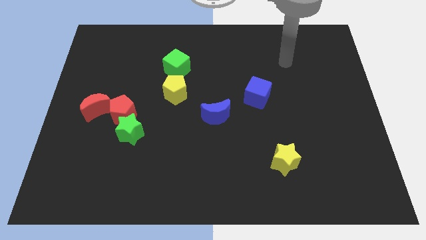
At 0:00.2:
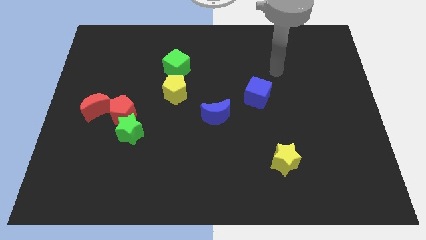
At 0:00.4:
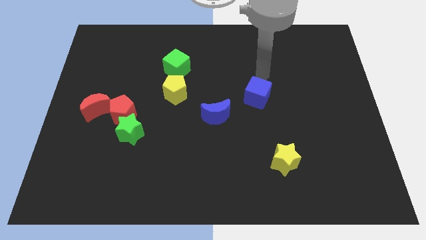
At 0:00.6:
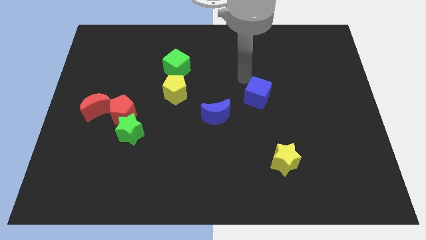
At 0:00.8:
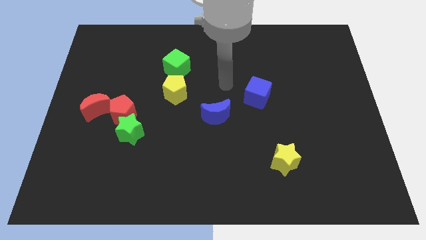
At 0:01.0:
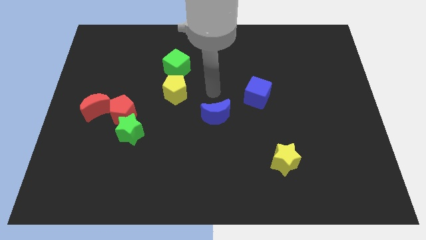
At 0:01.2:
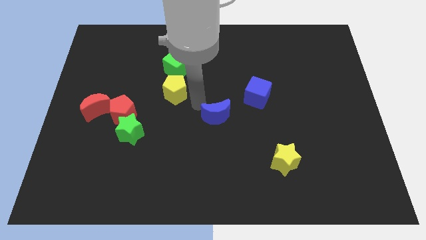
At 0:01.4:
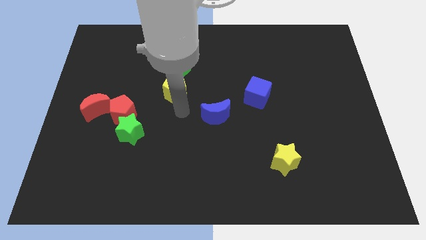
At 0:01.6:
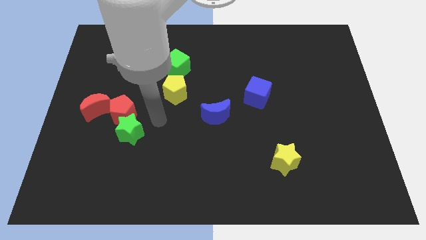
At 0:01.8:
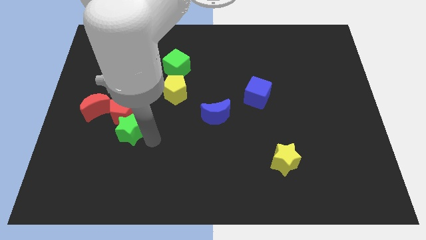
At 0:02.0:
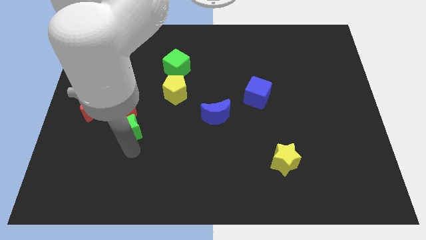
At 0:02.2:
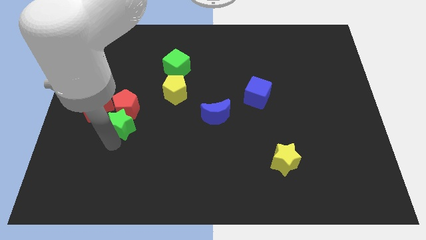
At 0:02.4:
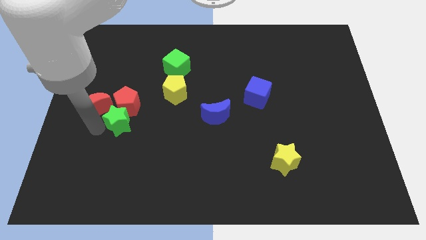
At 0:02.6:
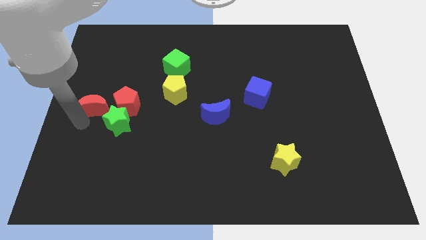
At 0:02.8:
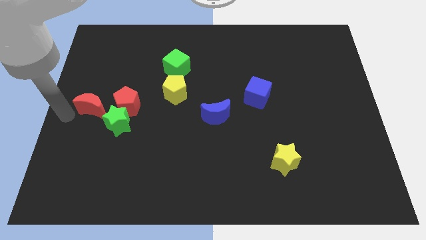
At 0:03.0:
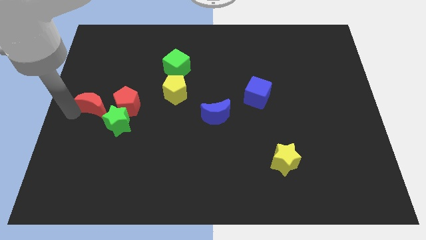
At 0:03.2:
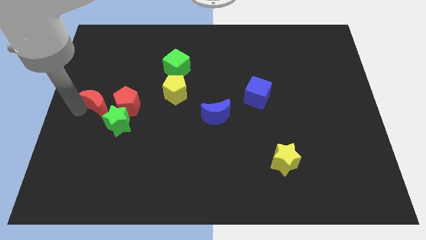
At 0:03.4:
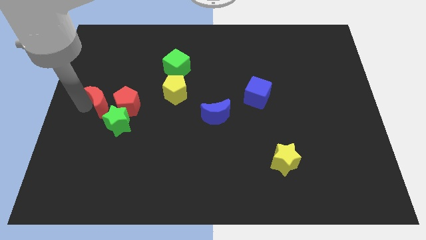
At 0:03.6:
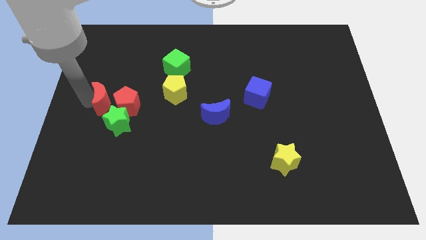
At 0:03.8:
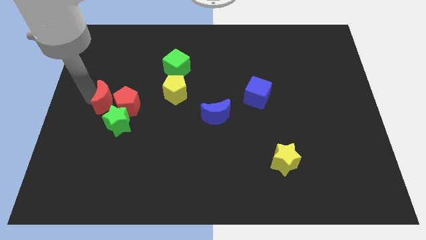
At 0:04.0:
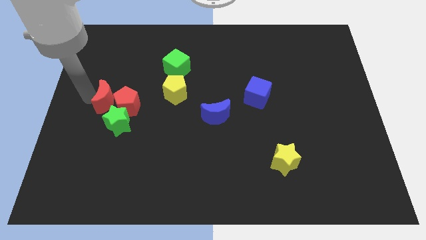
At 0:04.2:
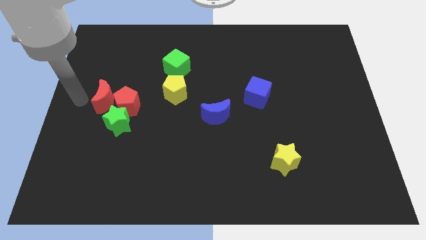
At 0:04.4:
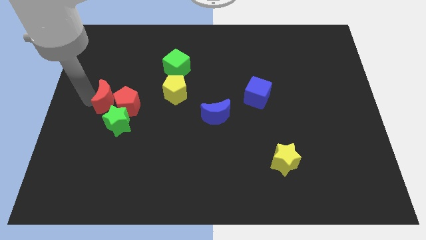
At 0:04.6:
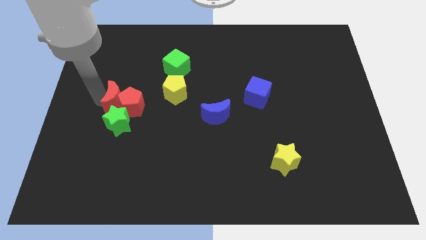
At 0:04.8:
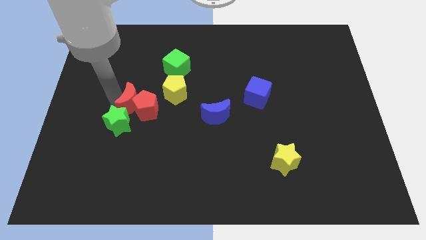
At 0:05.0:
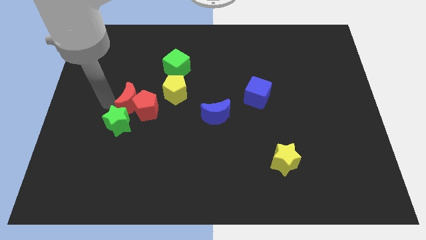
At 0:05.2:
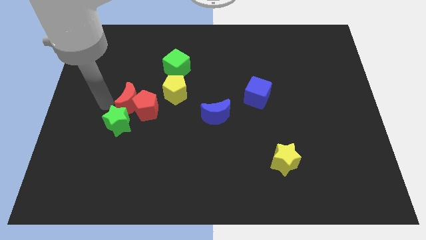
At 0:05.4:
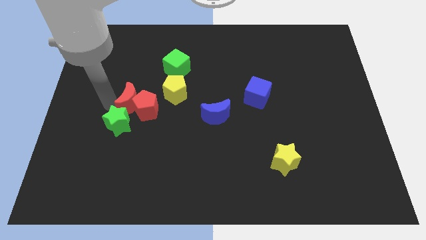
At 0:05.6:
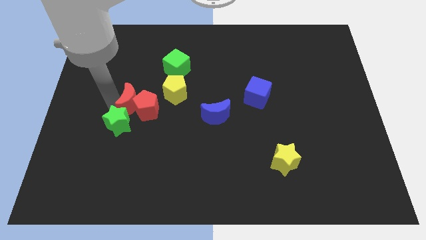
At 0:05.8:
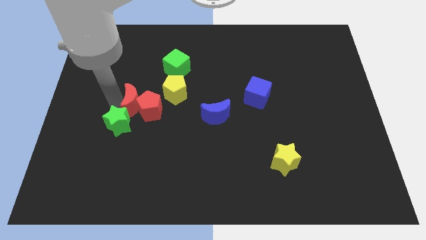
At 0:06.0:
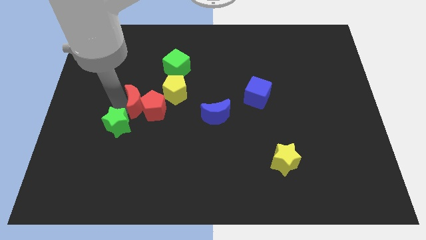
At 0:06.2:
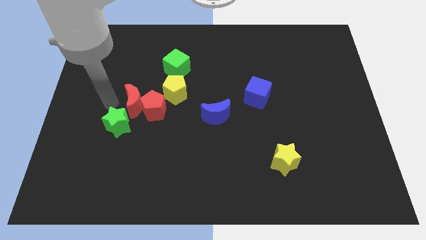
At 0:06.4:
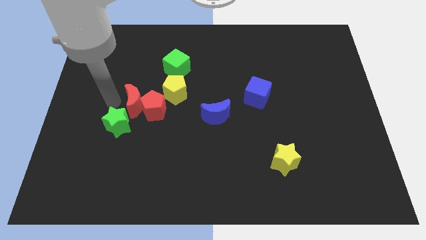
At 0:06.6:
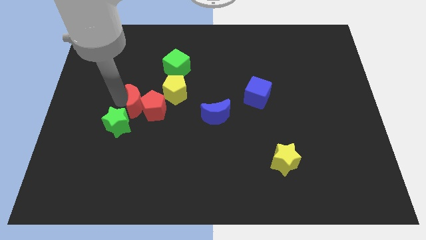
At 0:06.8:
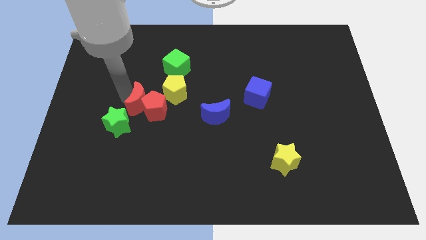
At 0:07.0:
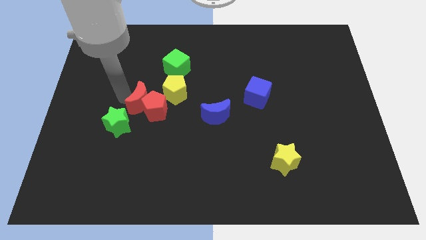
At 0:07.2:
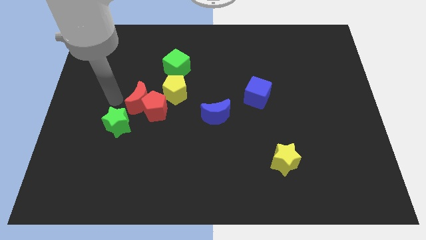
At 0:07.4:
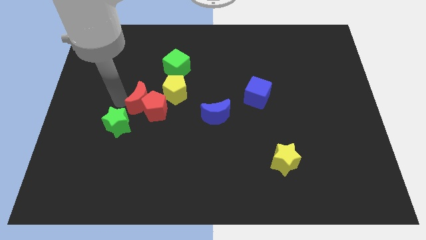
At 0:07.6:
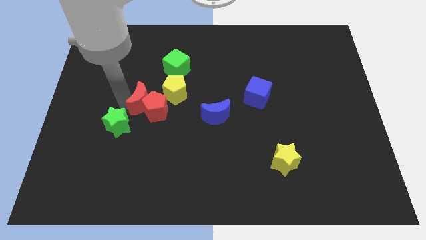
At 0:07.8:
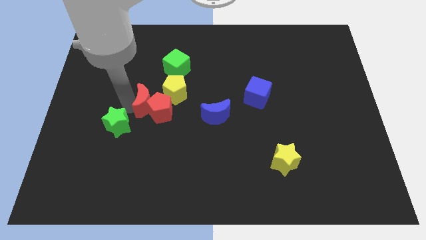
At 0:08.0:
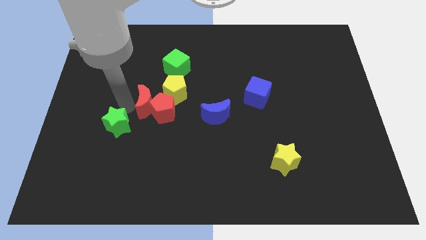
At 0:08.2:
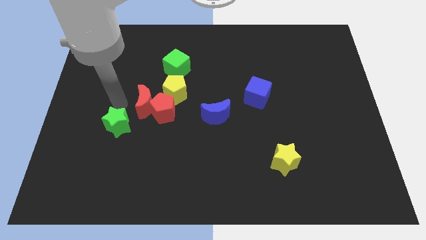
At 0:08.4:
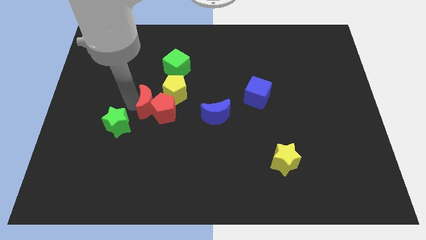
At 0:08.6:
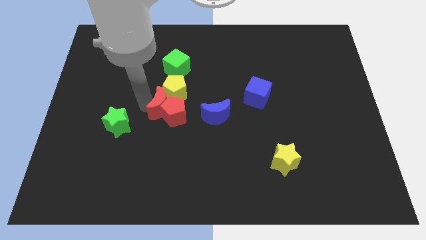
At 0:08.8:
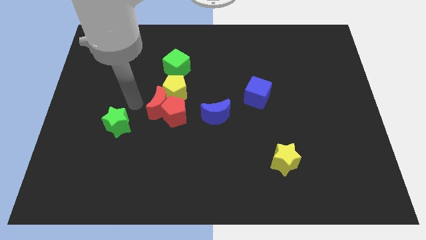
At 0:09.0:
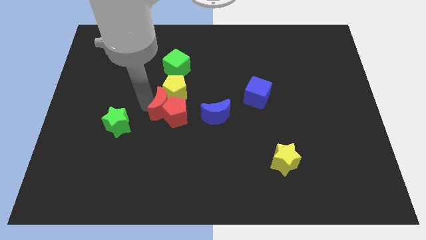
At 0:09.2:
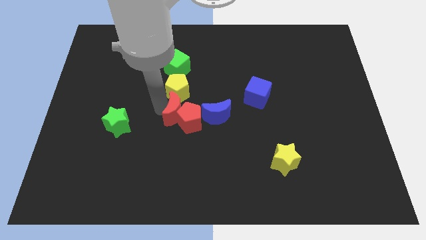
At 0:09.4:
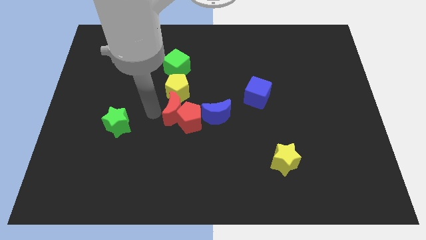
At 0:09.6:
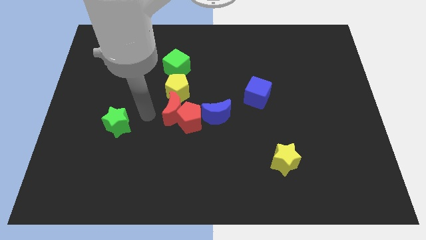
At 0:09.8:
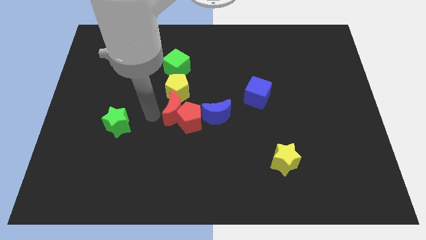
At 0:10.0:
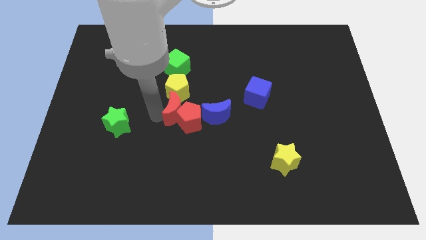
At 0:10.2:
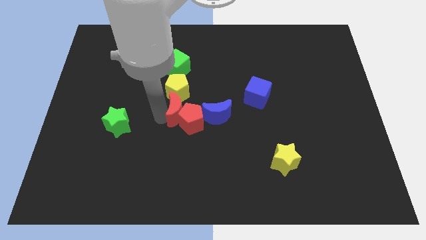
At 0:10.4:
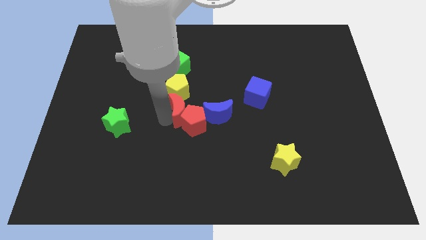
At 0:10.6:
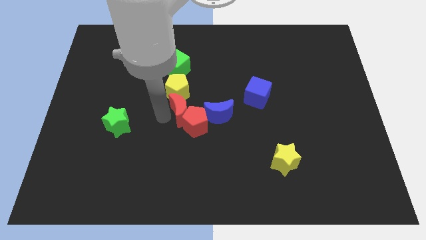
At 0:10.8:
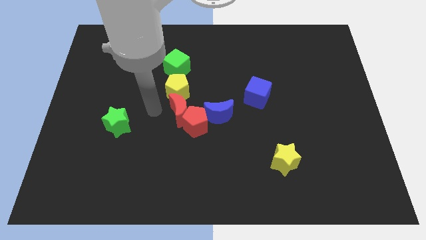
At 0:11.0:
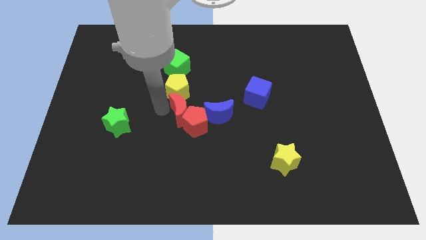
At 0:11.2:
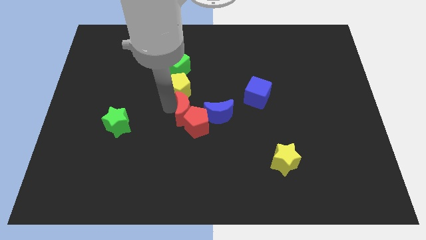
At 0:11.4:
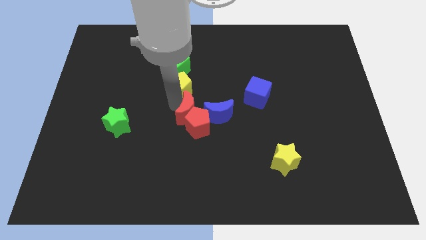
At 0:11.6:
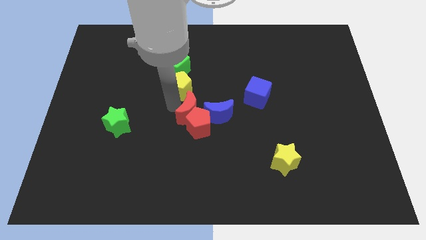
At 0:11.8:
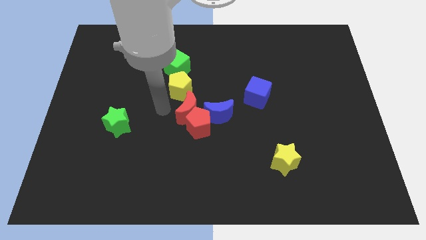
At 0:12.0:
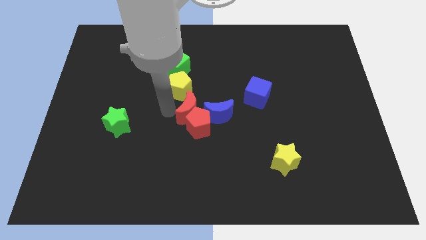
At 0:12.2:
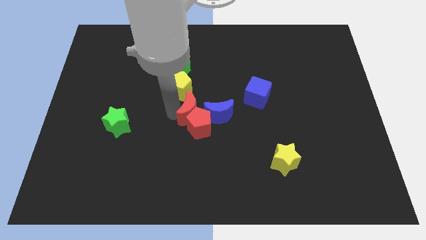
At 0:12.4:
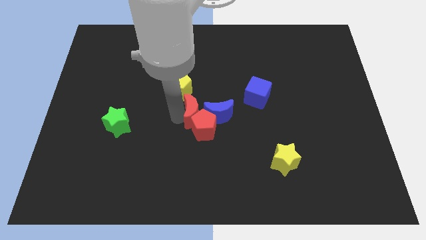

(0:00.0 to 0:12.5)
slide the red moon to the blue moon

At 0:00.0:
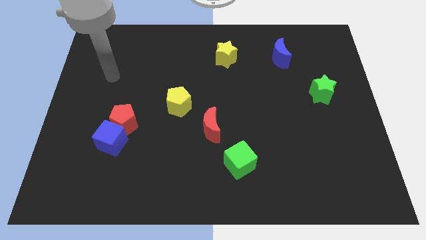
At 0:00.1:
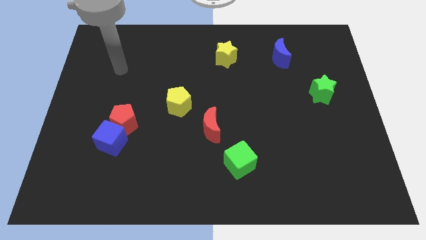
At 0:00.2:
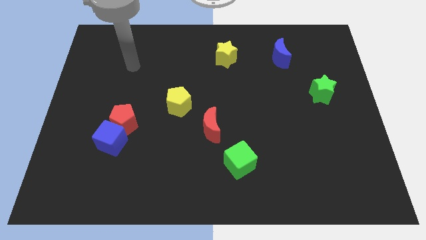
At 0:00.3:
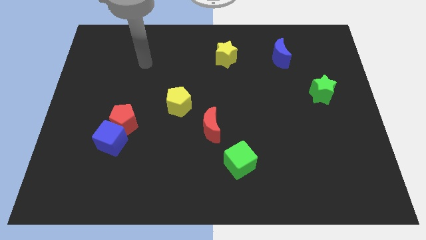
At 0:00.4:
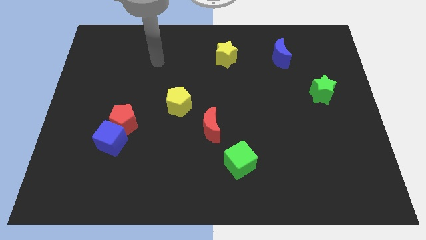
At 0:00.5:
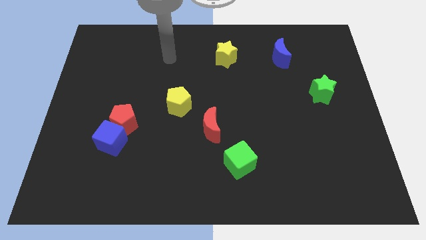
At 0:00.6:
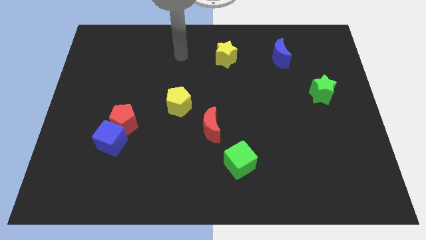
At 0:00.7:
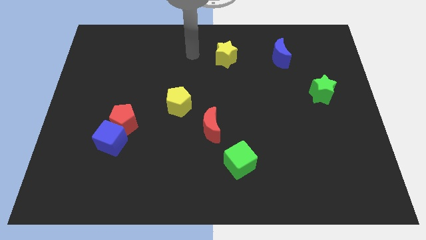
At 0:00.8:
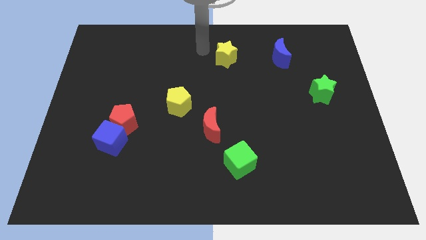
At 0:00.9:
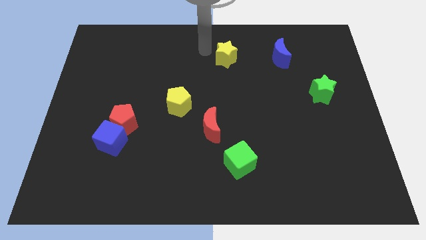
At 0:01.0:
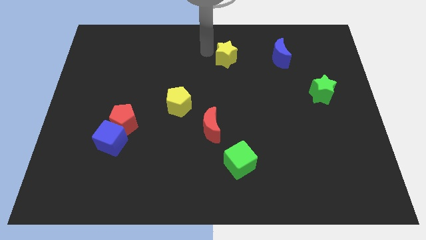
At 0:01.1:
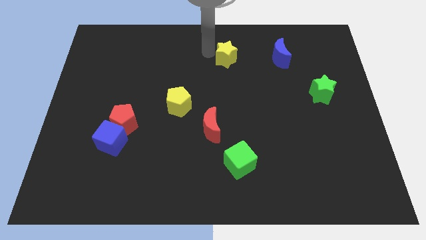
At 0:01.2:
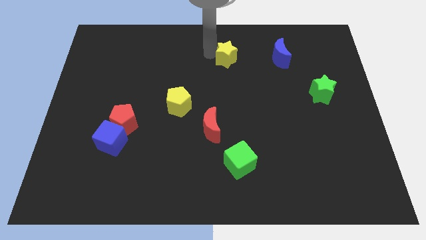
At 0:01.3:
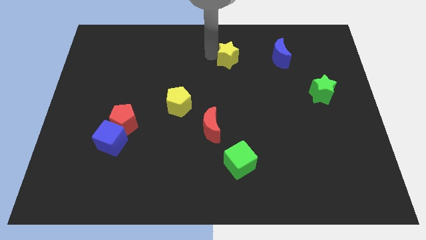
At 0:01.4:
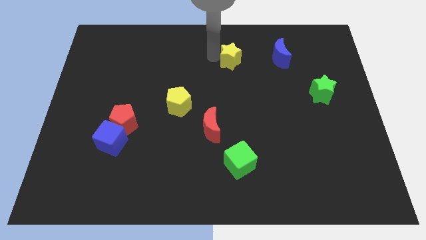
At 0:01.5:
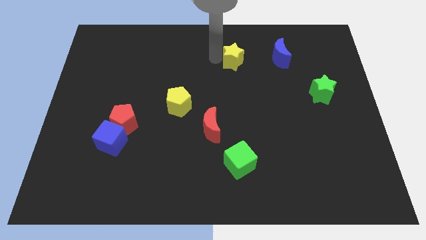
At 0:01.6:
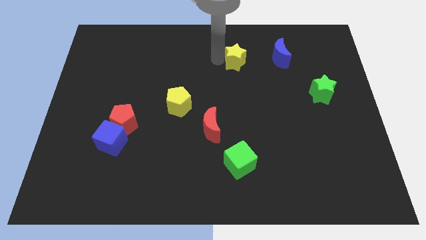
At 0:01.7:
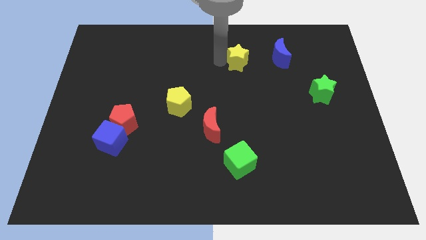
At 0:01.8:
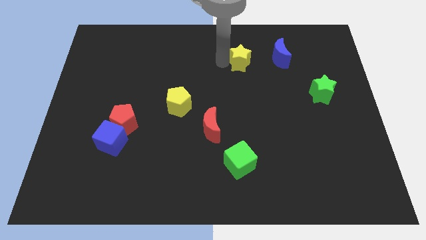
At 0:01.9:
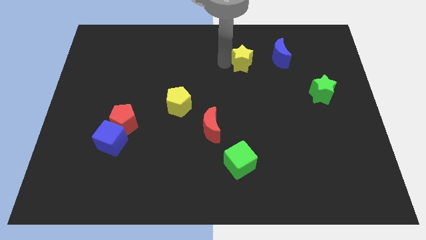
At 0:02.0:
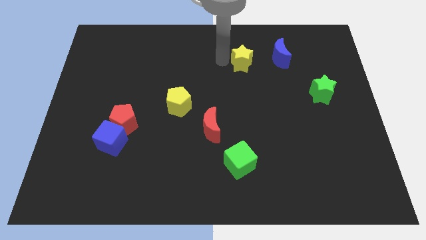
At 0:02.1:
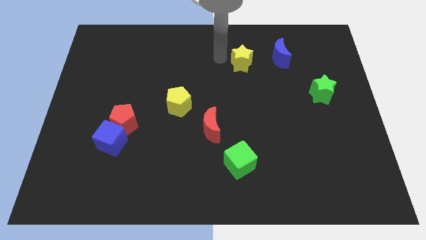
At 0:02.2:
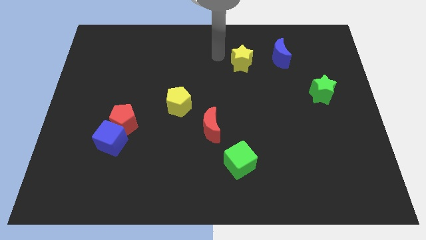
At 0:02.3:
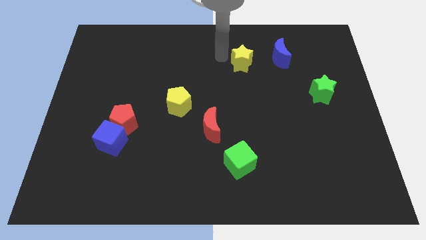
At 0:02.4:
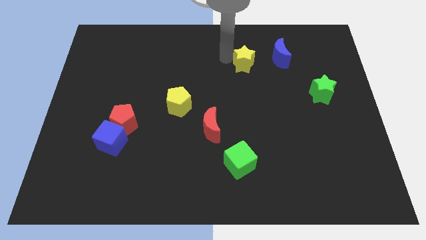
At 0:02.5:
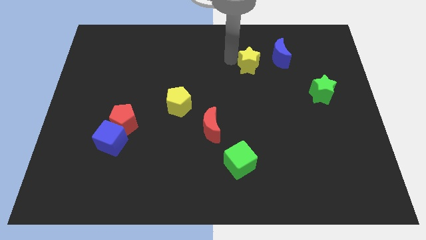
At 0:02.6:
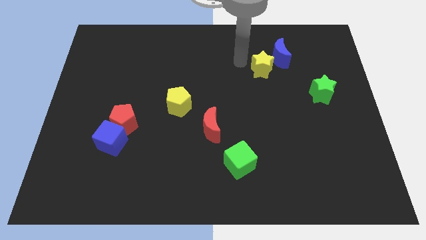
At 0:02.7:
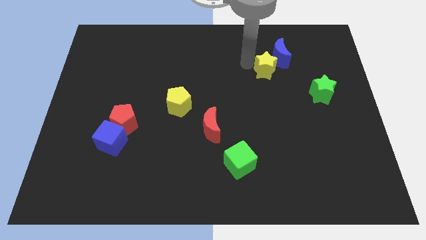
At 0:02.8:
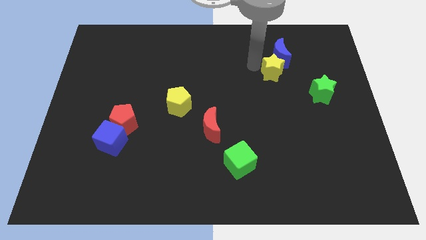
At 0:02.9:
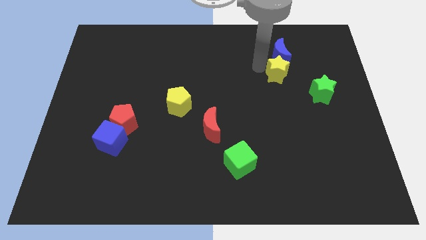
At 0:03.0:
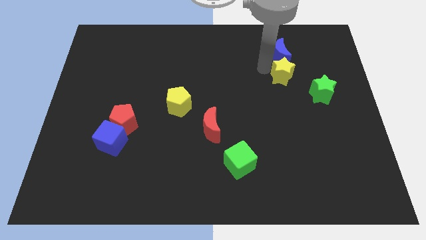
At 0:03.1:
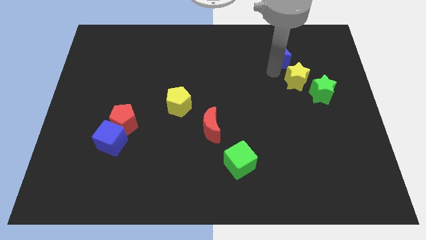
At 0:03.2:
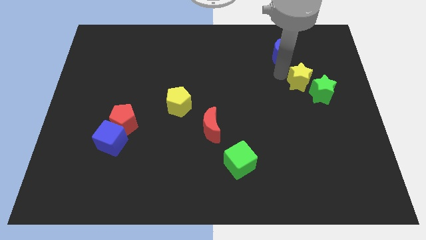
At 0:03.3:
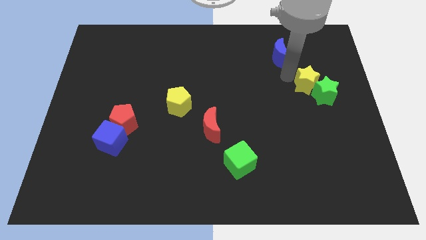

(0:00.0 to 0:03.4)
move the yellow star next to the green star
